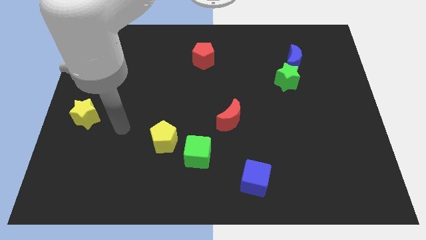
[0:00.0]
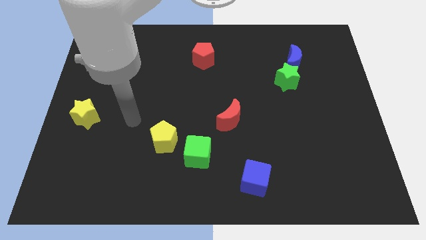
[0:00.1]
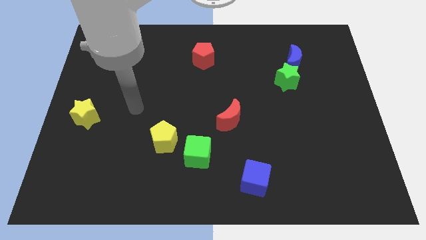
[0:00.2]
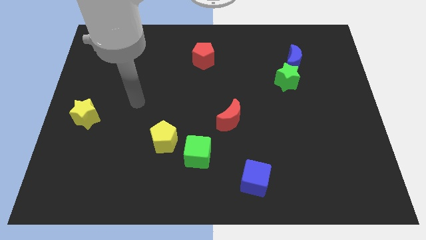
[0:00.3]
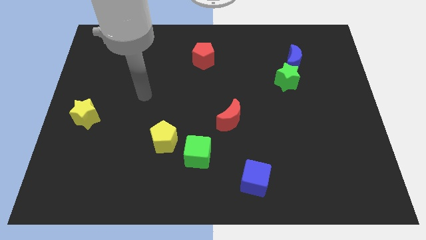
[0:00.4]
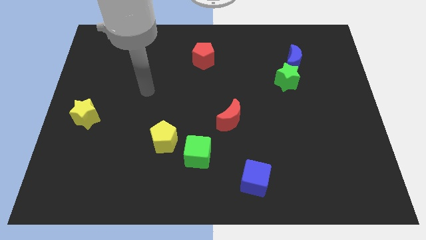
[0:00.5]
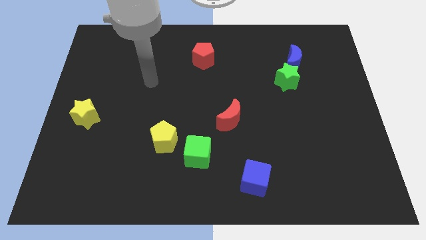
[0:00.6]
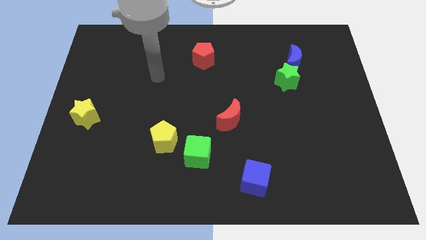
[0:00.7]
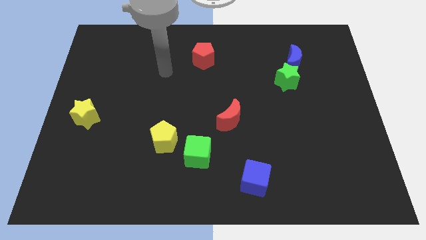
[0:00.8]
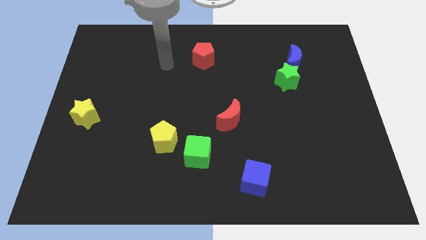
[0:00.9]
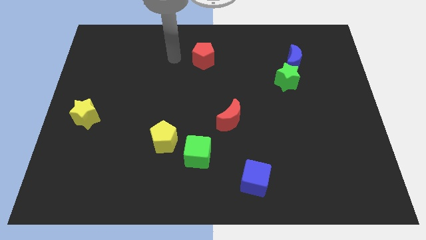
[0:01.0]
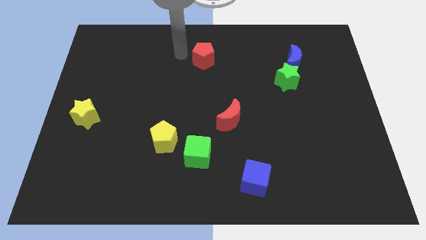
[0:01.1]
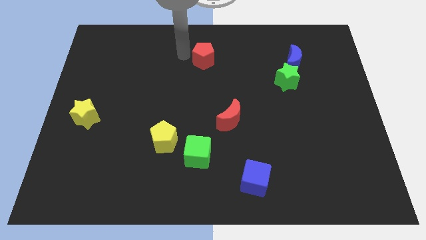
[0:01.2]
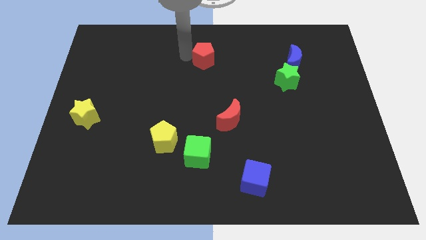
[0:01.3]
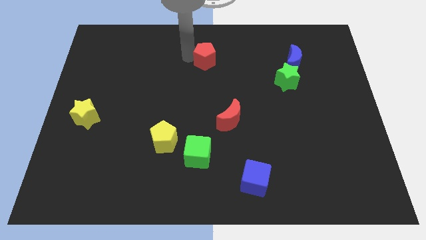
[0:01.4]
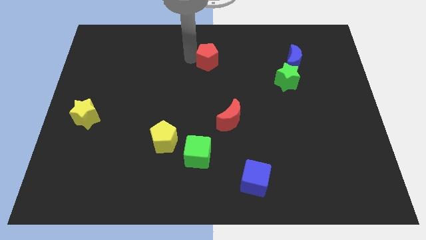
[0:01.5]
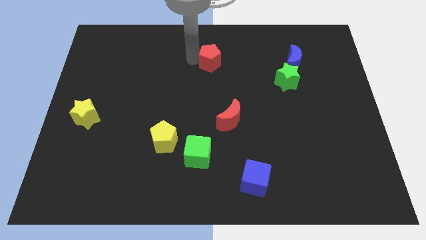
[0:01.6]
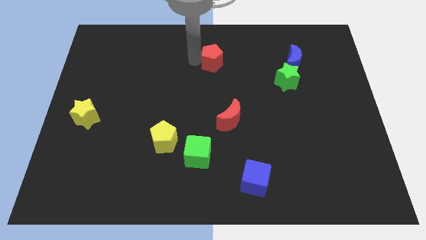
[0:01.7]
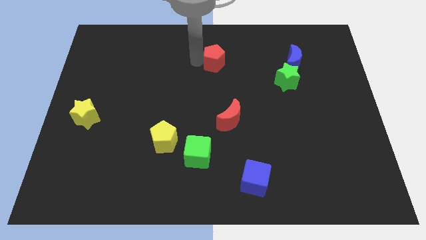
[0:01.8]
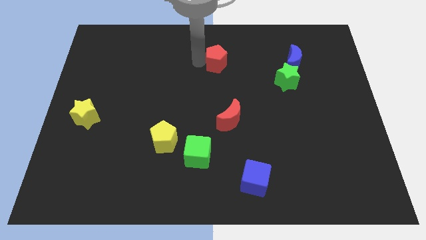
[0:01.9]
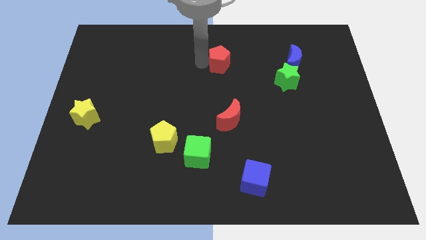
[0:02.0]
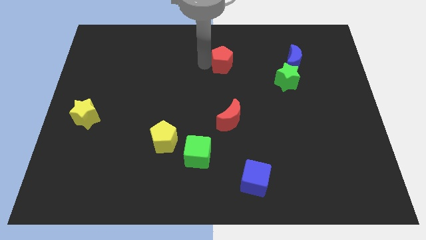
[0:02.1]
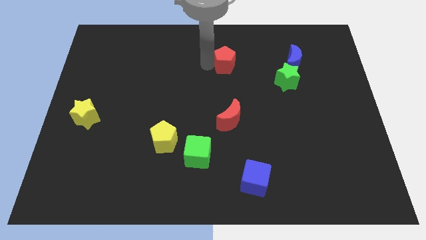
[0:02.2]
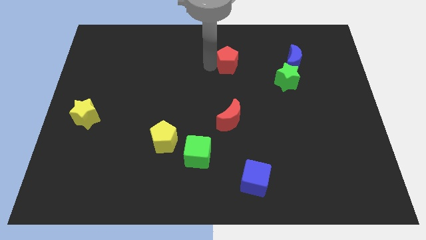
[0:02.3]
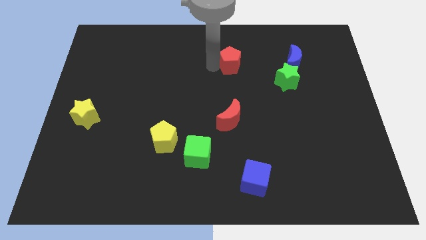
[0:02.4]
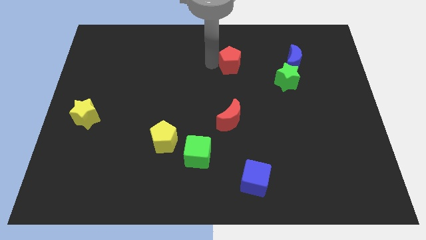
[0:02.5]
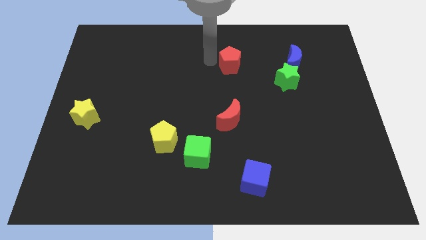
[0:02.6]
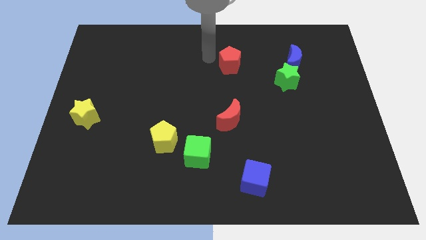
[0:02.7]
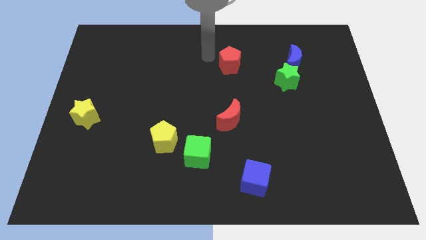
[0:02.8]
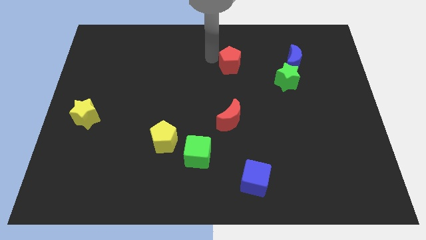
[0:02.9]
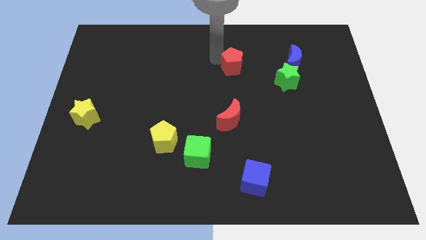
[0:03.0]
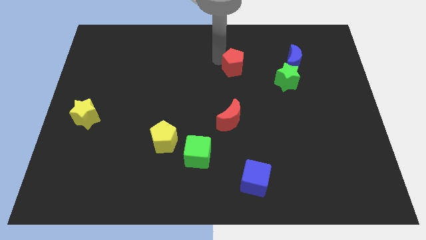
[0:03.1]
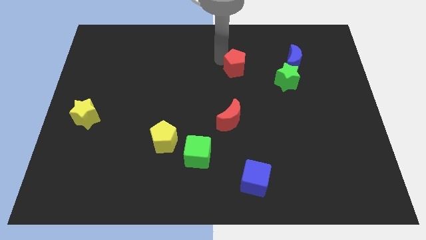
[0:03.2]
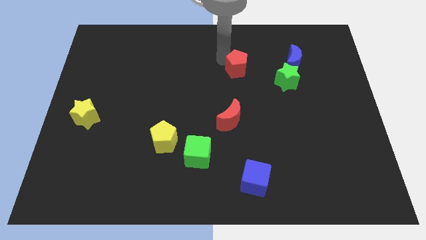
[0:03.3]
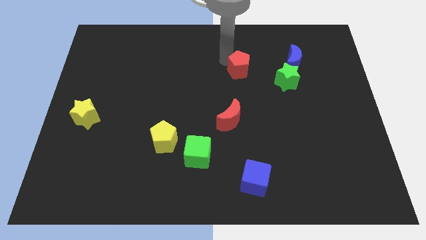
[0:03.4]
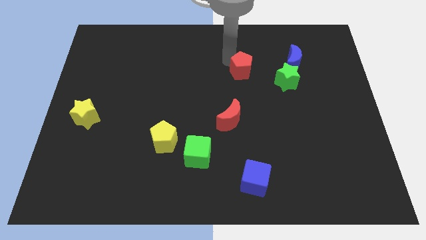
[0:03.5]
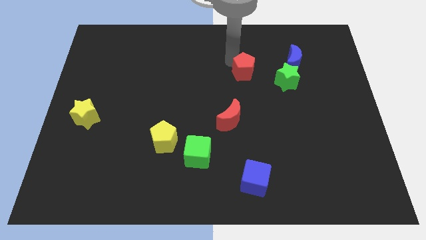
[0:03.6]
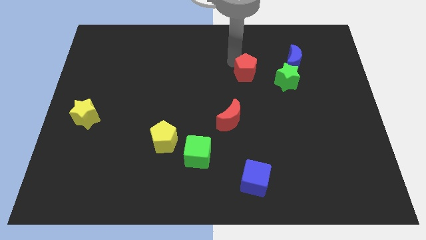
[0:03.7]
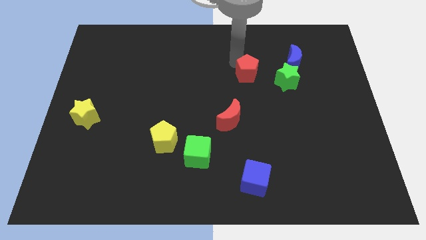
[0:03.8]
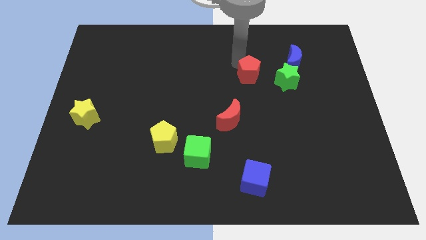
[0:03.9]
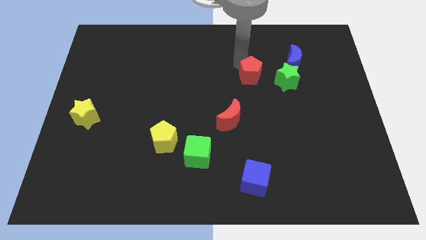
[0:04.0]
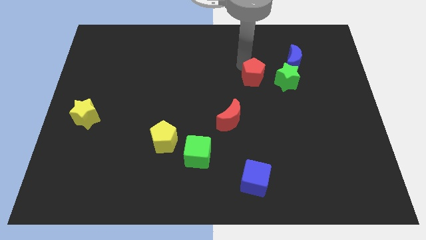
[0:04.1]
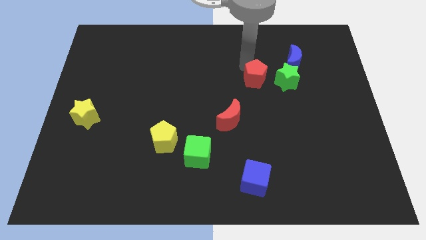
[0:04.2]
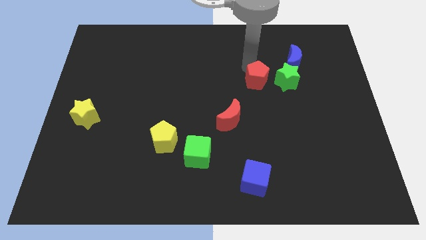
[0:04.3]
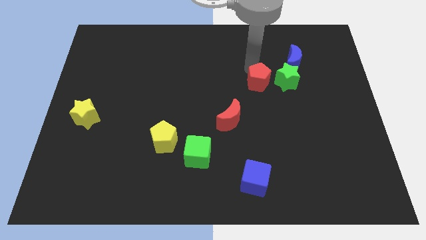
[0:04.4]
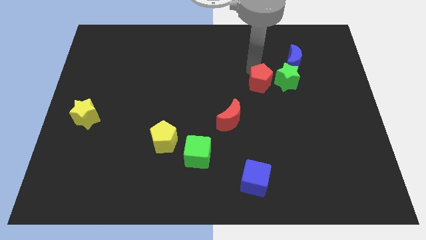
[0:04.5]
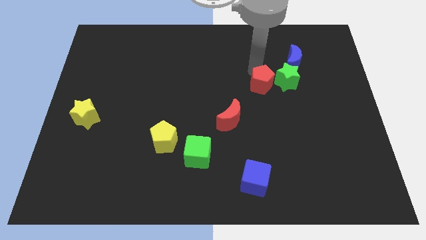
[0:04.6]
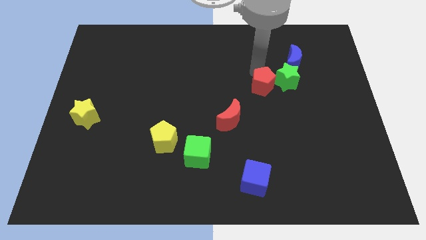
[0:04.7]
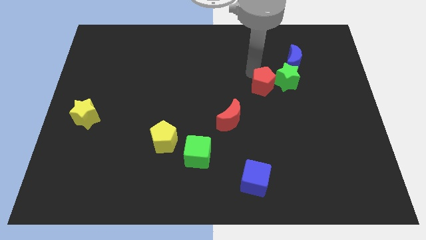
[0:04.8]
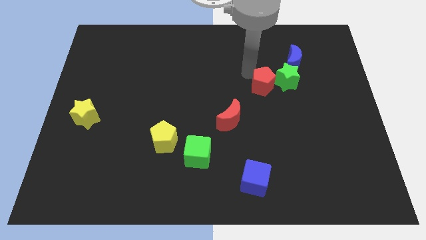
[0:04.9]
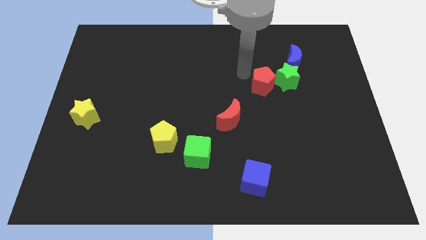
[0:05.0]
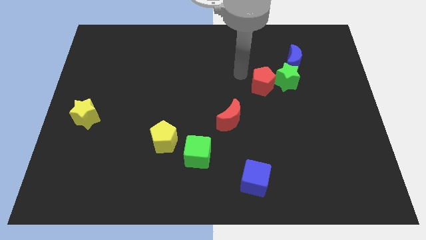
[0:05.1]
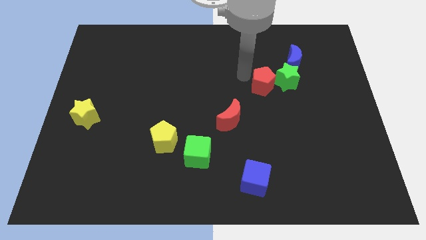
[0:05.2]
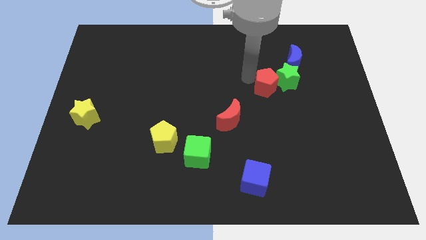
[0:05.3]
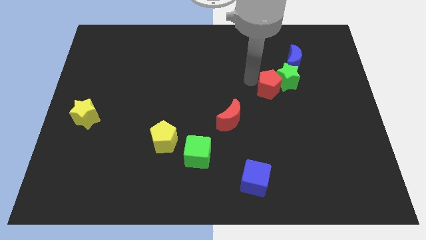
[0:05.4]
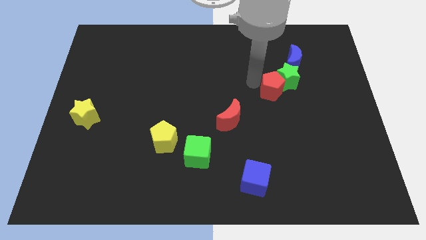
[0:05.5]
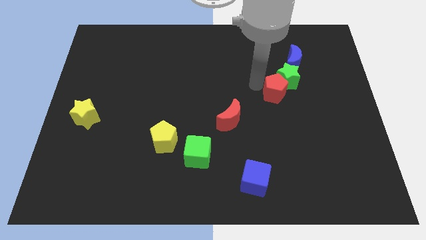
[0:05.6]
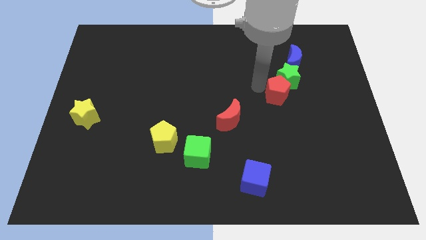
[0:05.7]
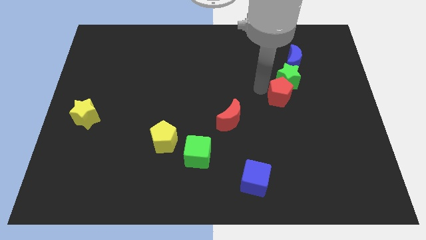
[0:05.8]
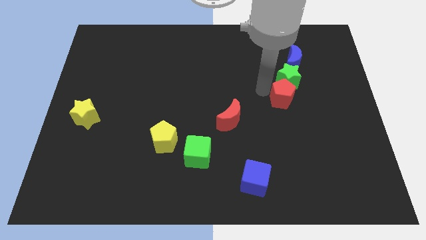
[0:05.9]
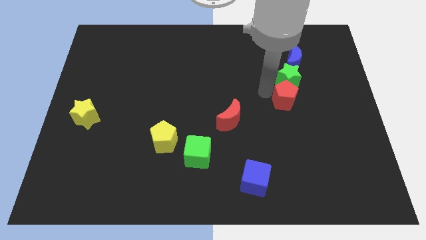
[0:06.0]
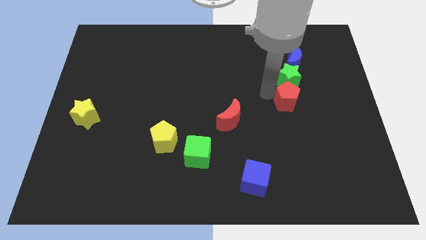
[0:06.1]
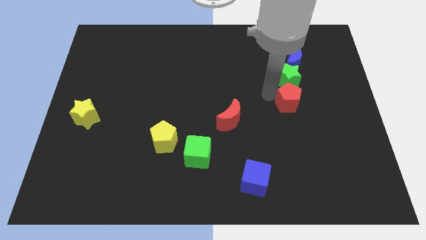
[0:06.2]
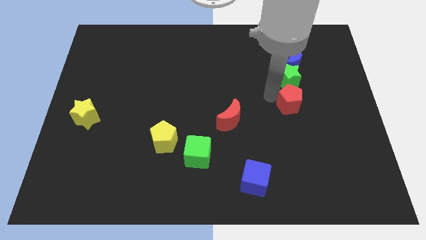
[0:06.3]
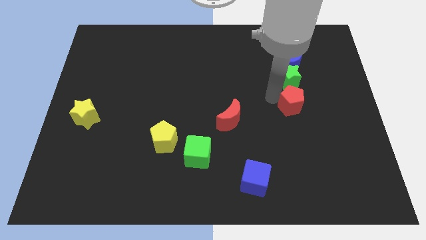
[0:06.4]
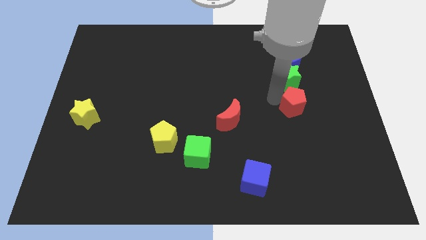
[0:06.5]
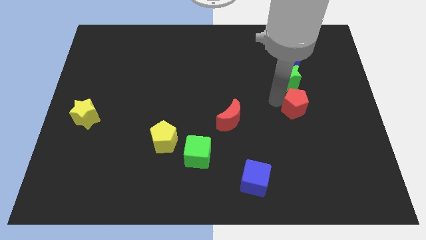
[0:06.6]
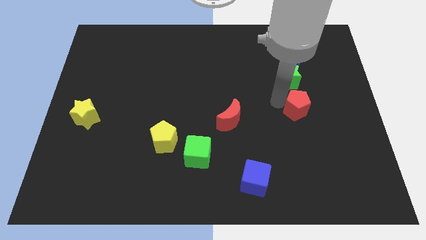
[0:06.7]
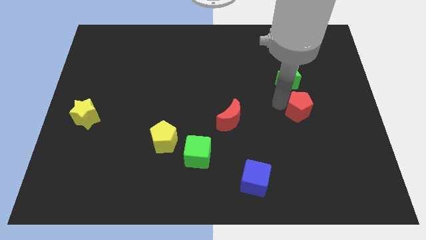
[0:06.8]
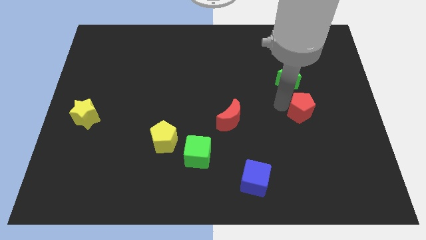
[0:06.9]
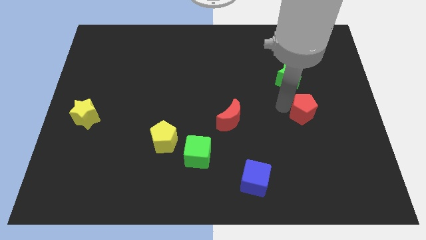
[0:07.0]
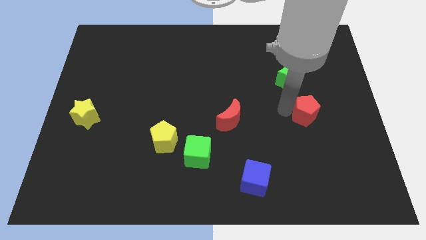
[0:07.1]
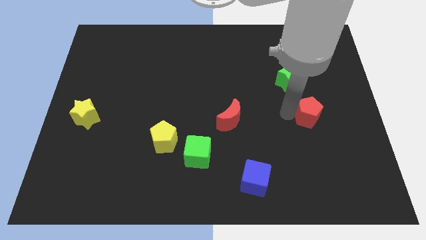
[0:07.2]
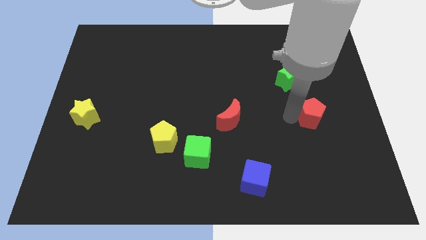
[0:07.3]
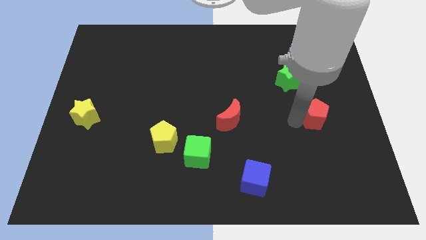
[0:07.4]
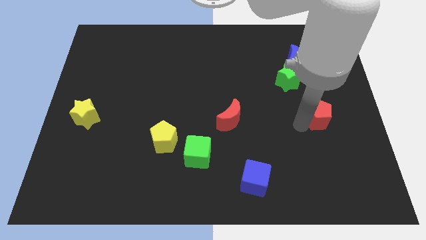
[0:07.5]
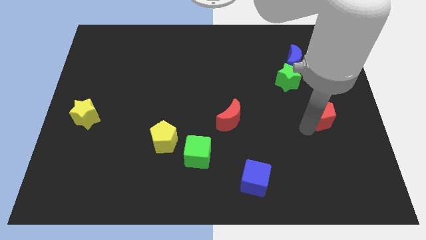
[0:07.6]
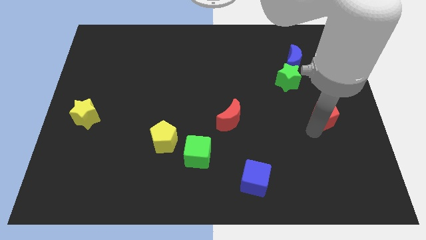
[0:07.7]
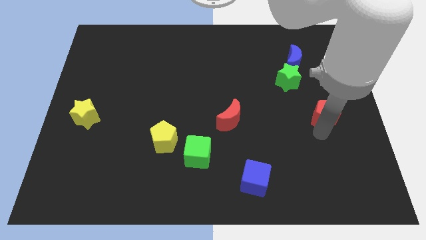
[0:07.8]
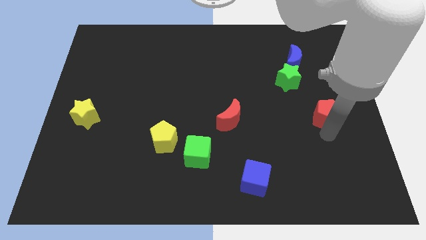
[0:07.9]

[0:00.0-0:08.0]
slide the red pentagon to the right side
